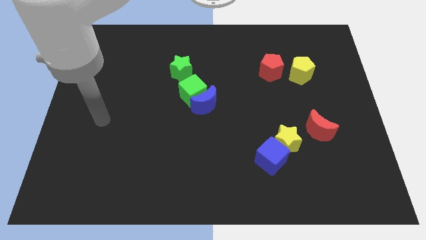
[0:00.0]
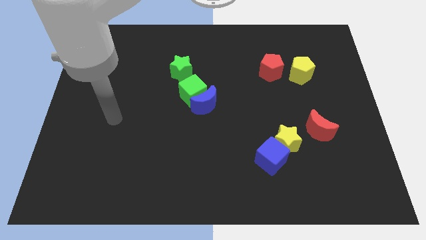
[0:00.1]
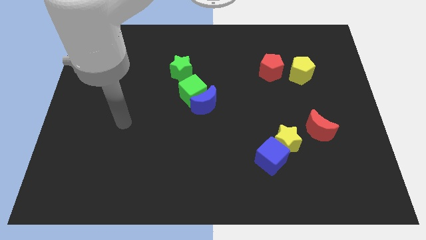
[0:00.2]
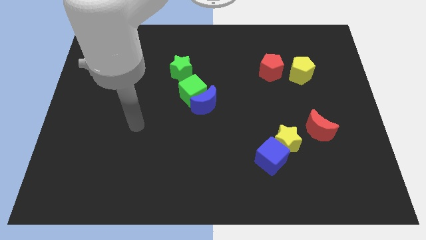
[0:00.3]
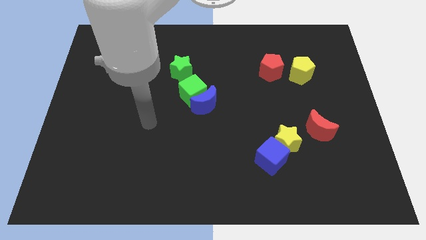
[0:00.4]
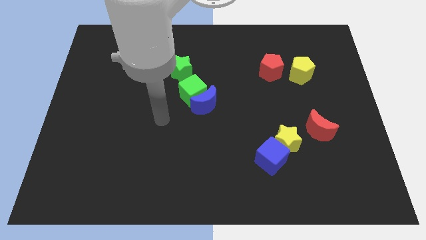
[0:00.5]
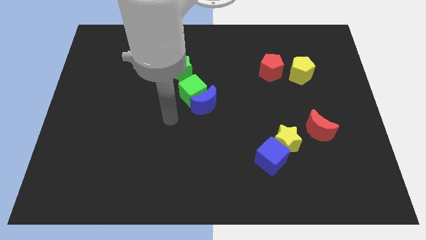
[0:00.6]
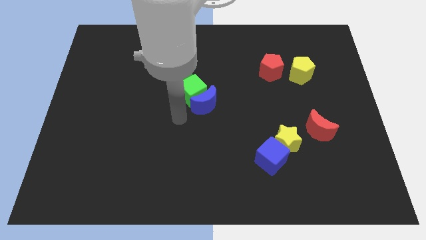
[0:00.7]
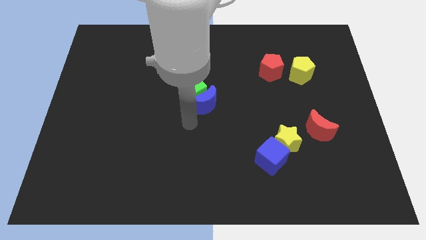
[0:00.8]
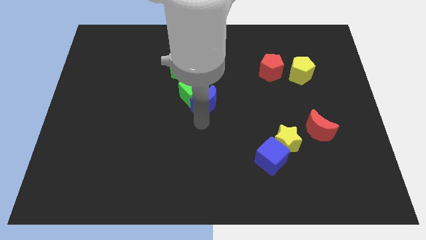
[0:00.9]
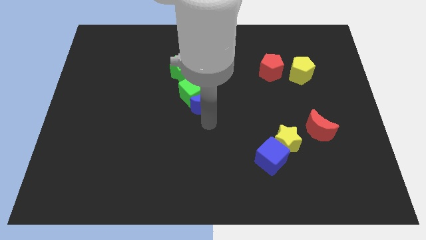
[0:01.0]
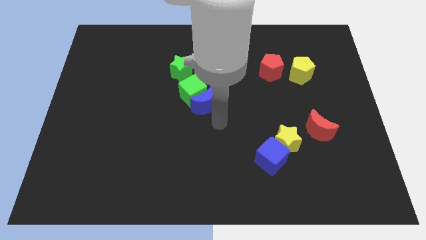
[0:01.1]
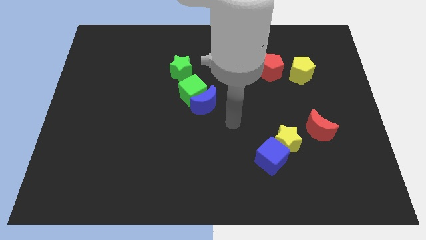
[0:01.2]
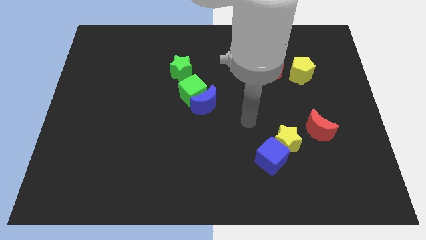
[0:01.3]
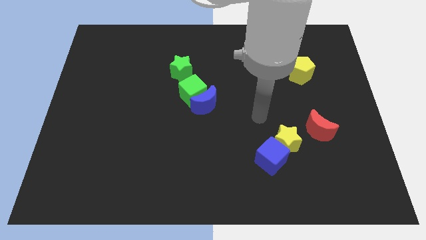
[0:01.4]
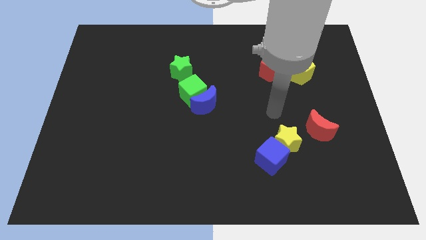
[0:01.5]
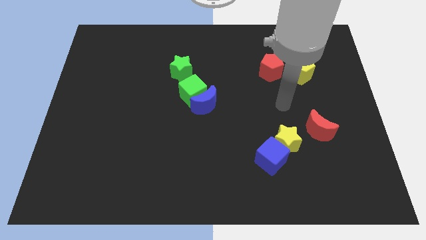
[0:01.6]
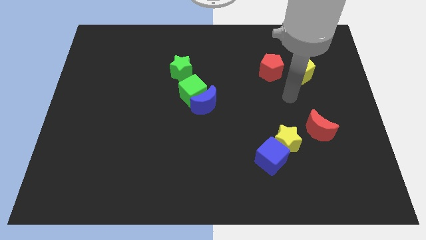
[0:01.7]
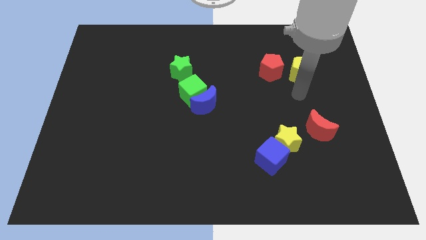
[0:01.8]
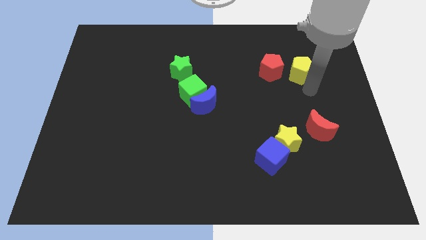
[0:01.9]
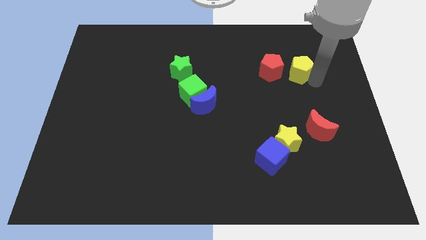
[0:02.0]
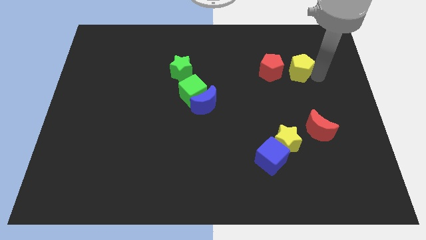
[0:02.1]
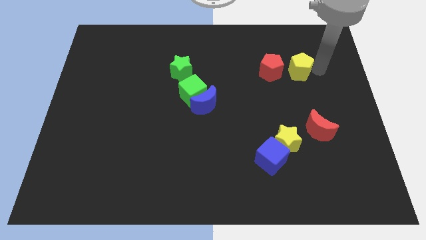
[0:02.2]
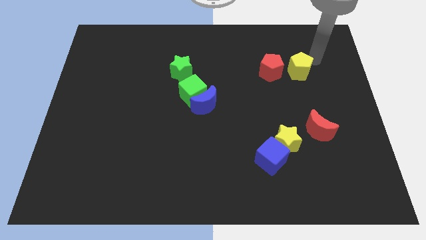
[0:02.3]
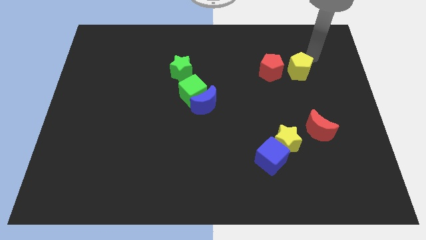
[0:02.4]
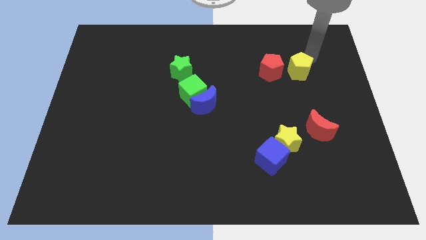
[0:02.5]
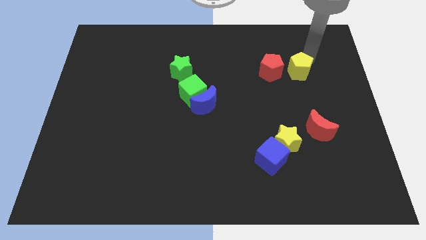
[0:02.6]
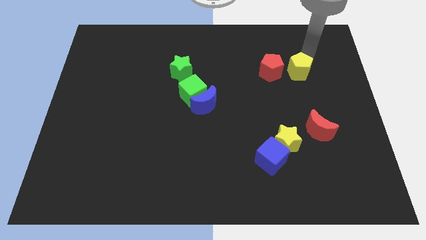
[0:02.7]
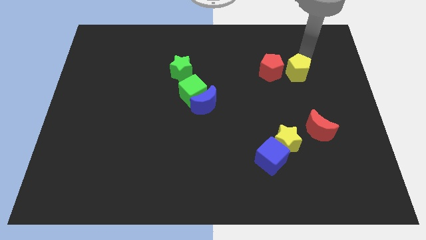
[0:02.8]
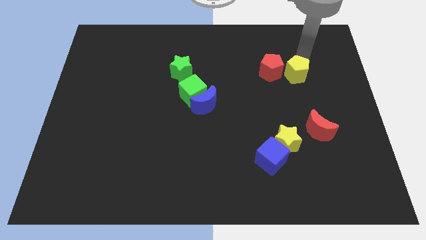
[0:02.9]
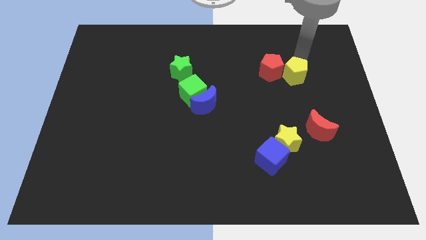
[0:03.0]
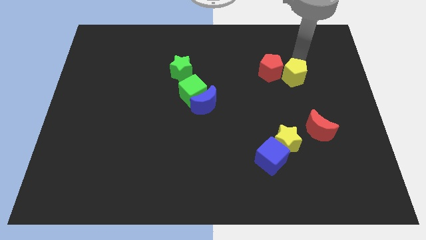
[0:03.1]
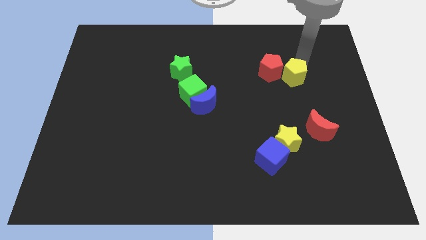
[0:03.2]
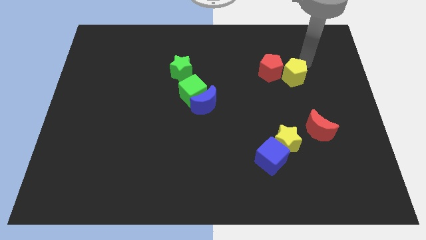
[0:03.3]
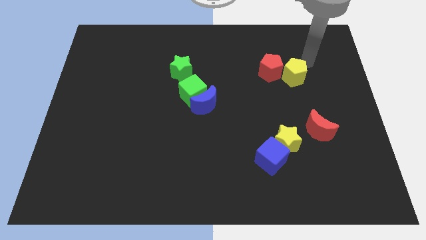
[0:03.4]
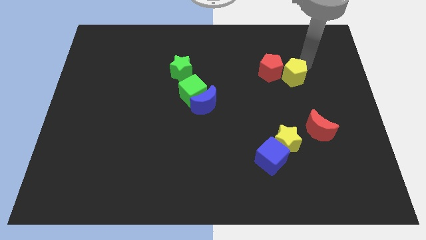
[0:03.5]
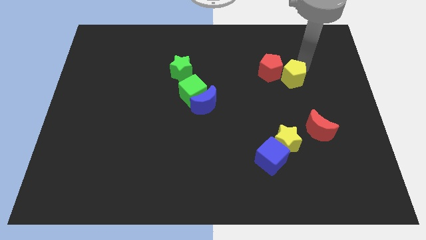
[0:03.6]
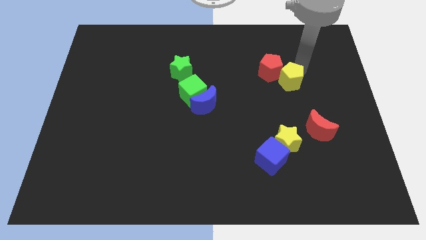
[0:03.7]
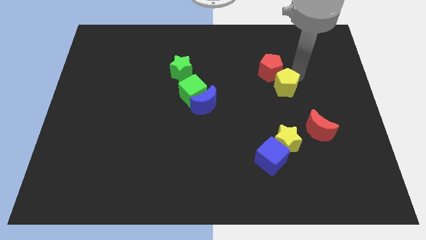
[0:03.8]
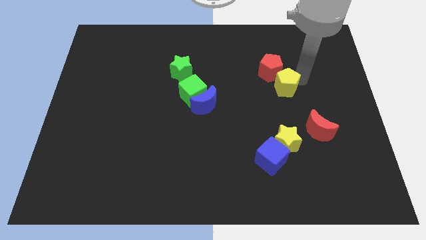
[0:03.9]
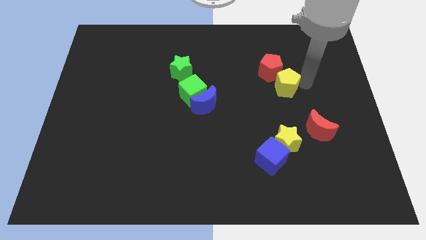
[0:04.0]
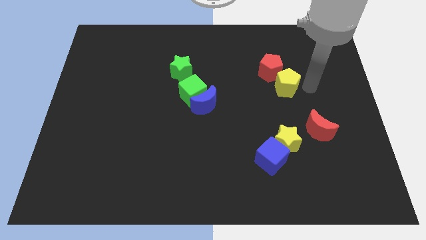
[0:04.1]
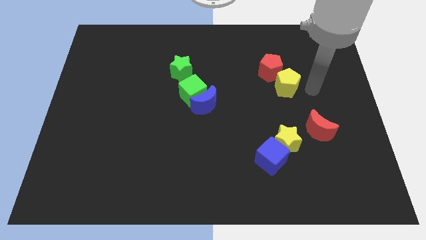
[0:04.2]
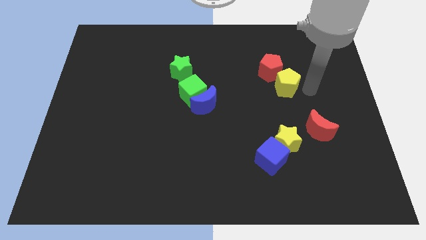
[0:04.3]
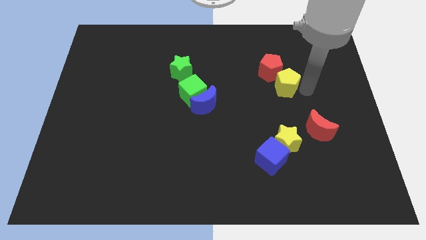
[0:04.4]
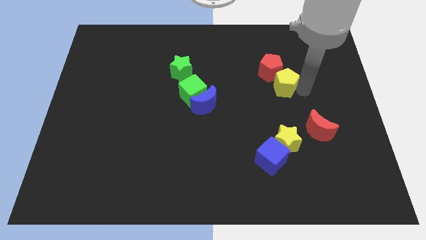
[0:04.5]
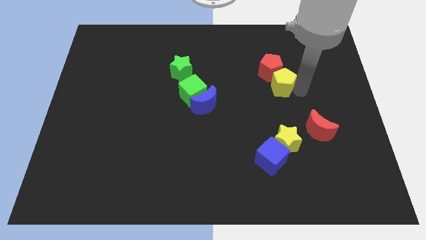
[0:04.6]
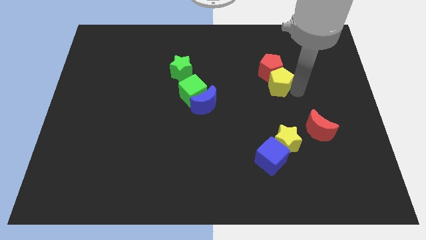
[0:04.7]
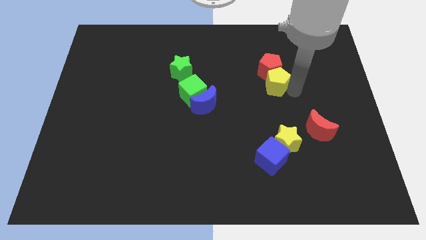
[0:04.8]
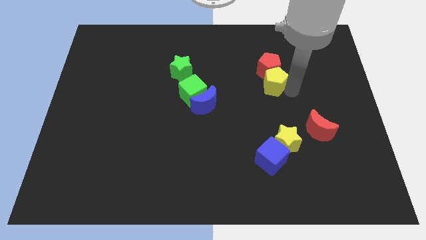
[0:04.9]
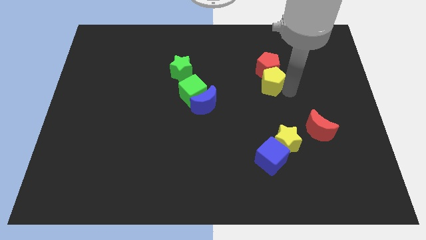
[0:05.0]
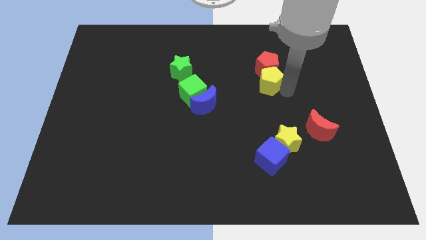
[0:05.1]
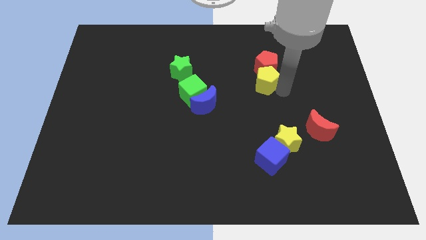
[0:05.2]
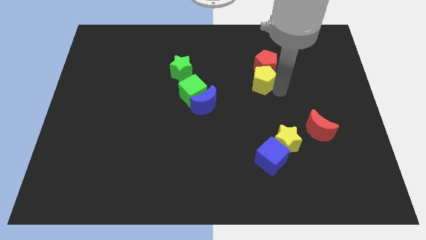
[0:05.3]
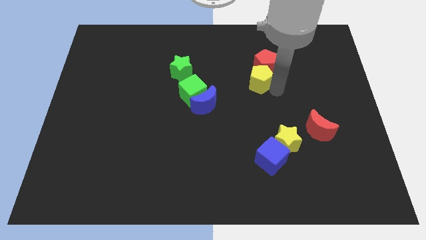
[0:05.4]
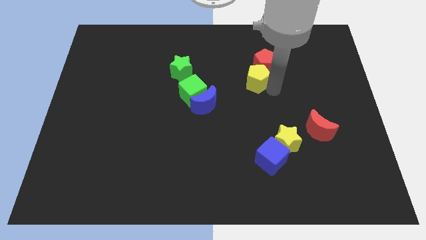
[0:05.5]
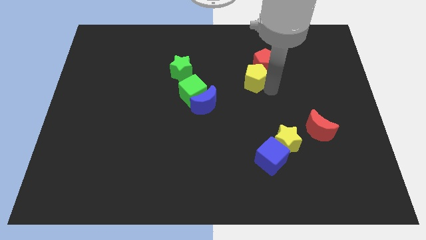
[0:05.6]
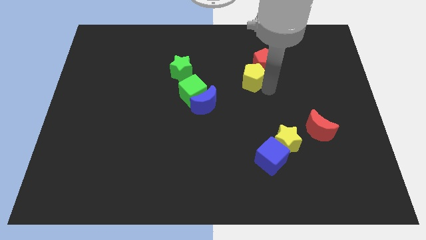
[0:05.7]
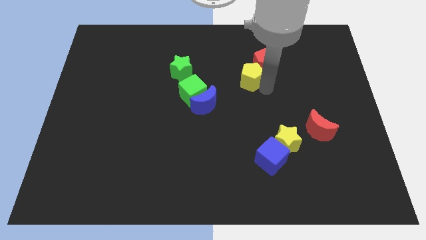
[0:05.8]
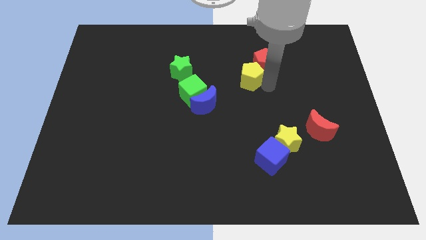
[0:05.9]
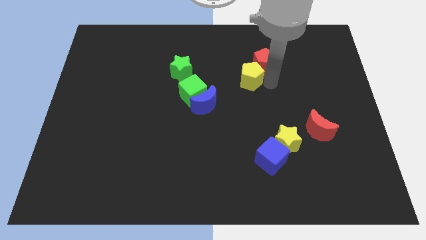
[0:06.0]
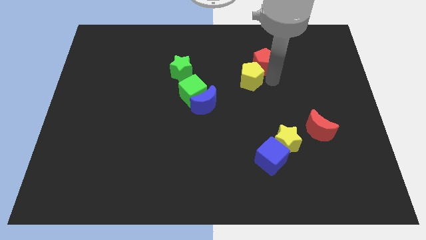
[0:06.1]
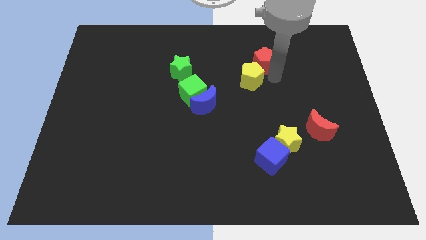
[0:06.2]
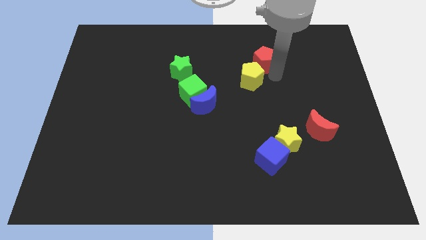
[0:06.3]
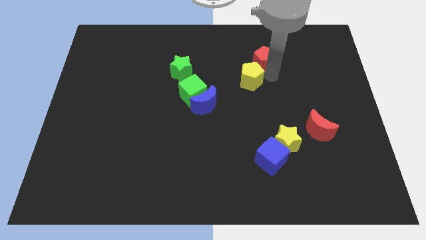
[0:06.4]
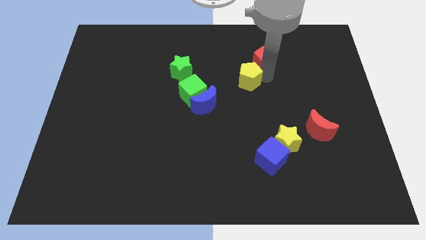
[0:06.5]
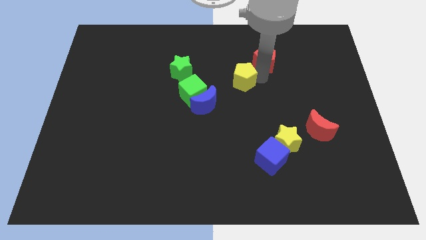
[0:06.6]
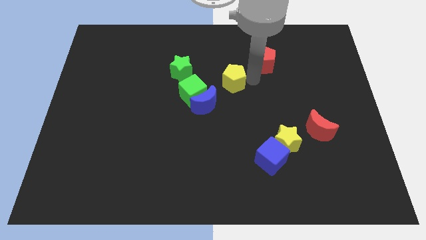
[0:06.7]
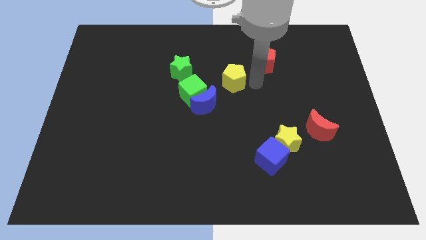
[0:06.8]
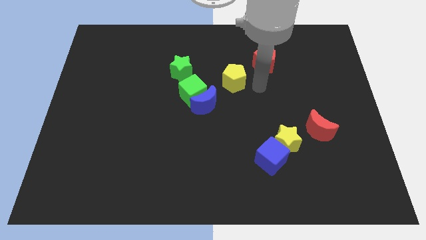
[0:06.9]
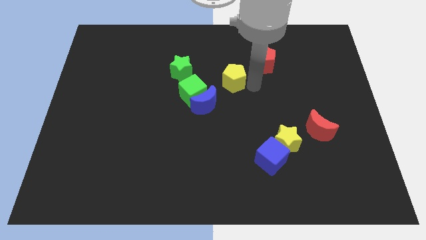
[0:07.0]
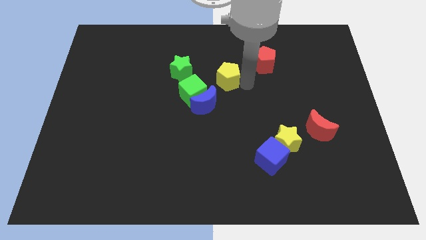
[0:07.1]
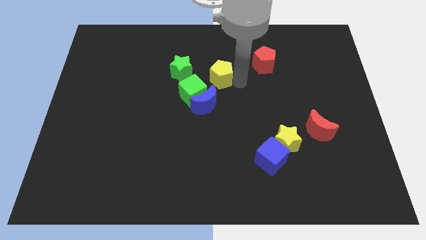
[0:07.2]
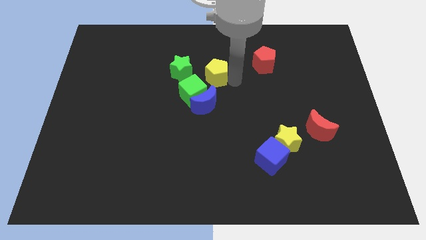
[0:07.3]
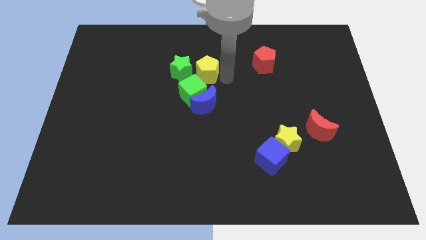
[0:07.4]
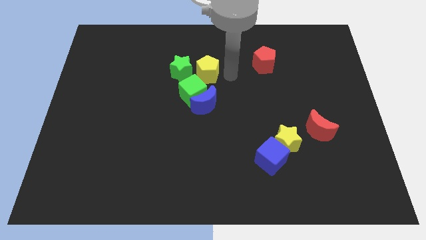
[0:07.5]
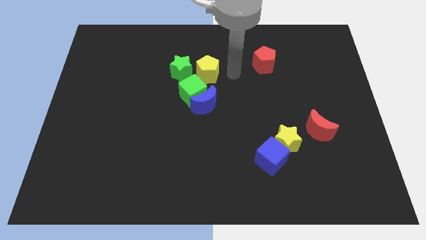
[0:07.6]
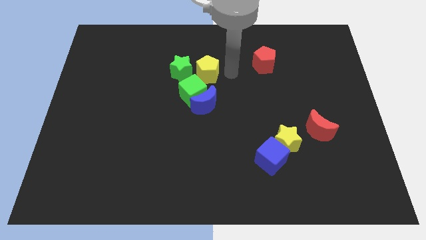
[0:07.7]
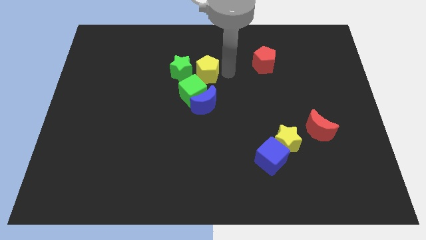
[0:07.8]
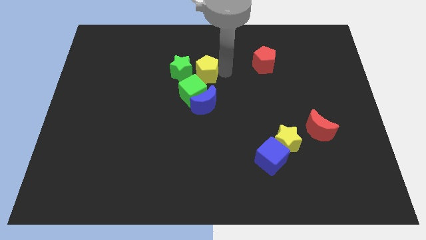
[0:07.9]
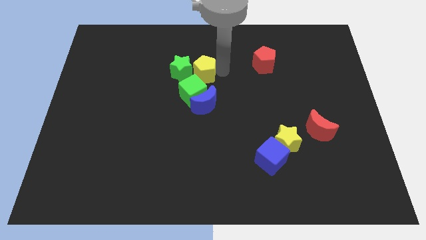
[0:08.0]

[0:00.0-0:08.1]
put the yellow pentagon towards the green star
